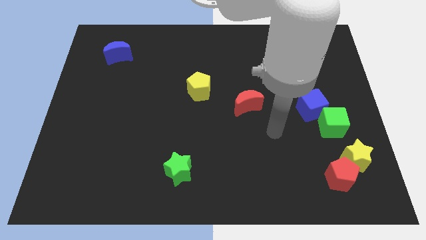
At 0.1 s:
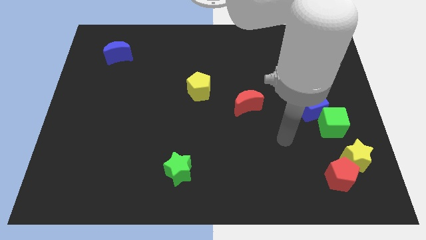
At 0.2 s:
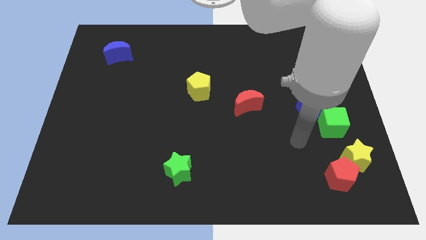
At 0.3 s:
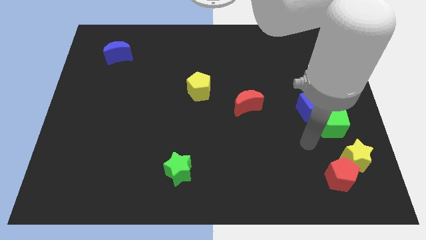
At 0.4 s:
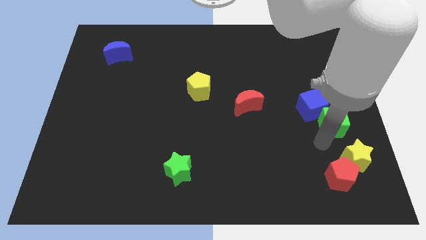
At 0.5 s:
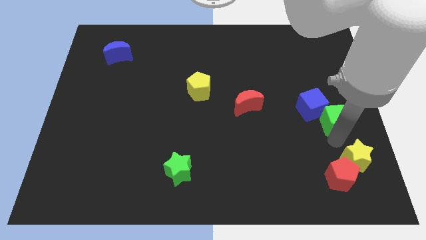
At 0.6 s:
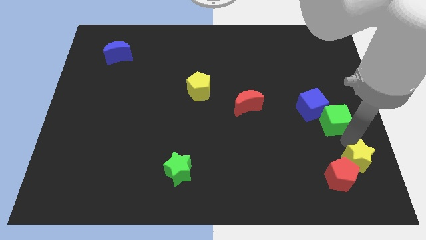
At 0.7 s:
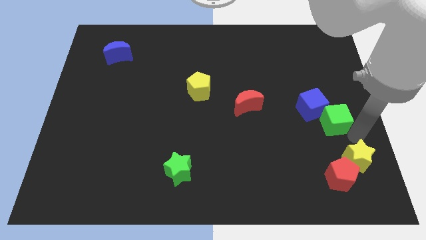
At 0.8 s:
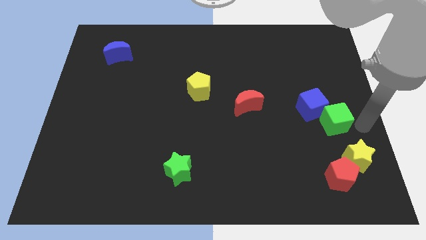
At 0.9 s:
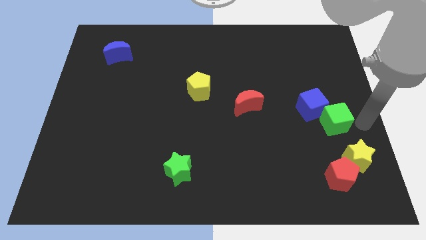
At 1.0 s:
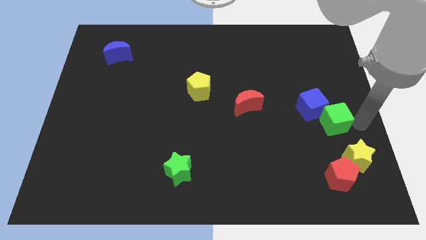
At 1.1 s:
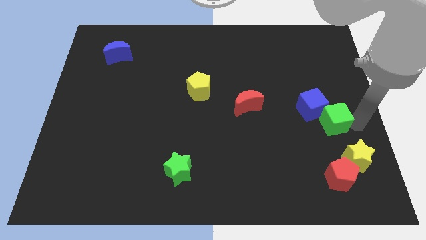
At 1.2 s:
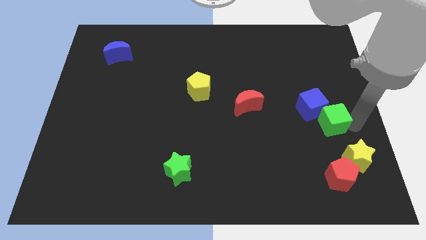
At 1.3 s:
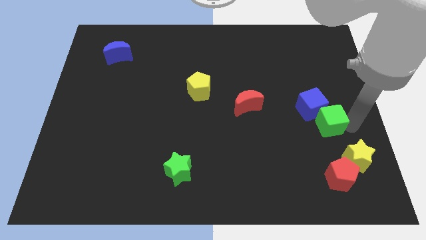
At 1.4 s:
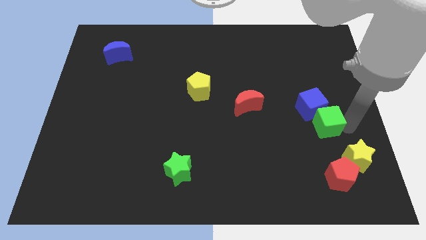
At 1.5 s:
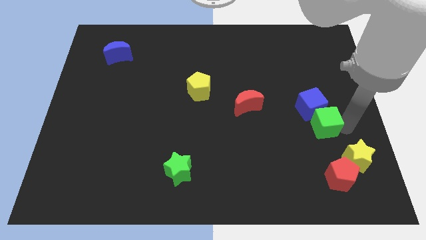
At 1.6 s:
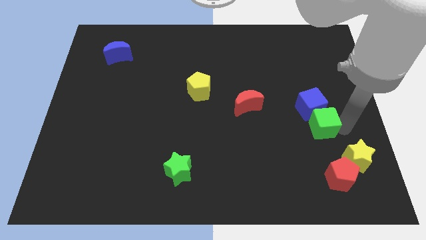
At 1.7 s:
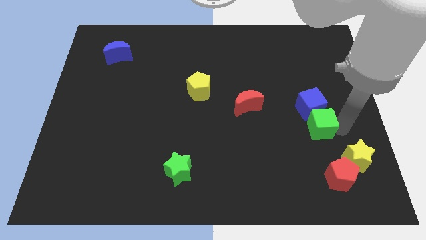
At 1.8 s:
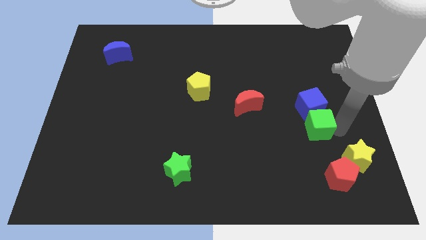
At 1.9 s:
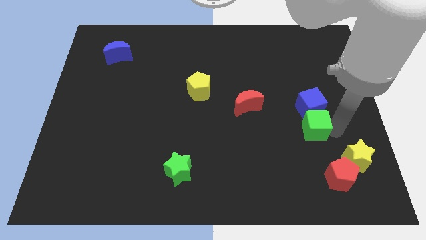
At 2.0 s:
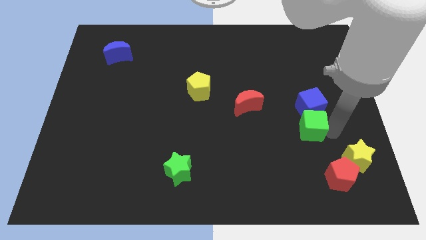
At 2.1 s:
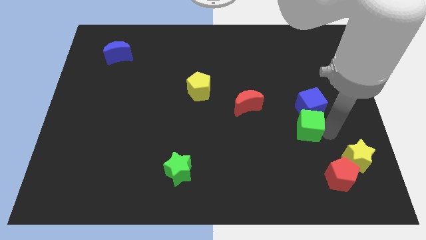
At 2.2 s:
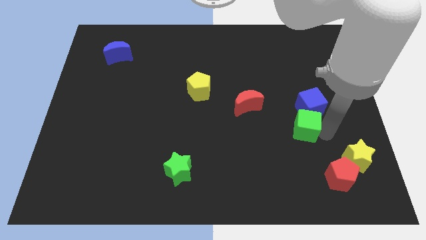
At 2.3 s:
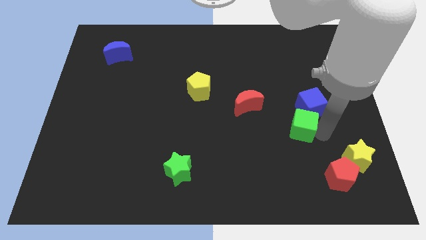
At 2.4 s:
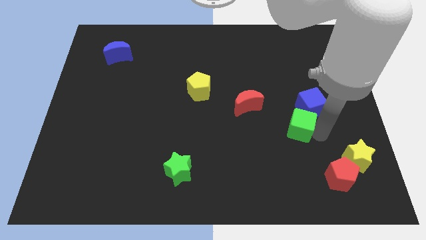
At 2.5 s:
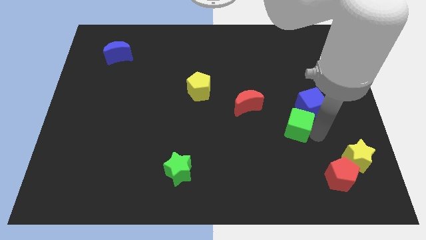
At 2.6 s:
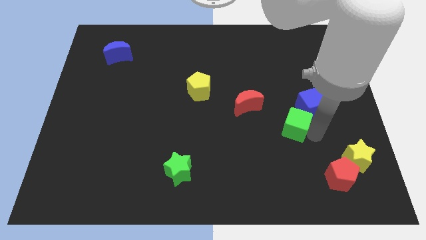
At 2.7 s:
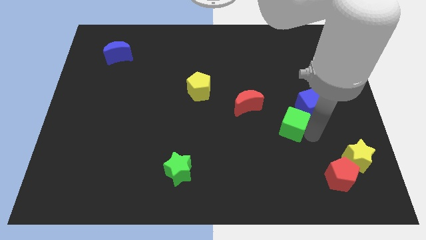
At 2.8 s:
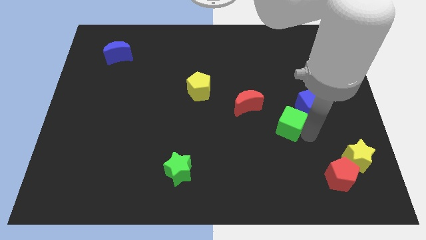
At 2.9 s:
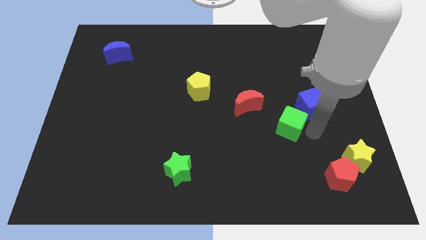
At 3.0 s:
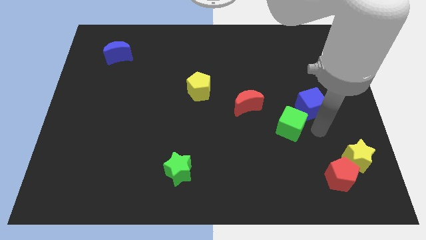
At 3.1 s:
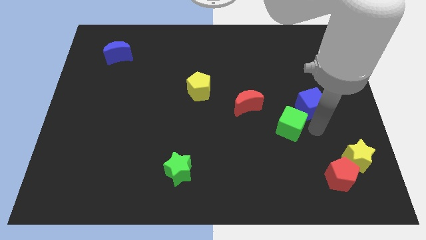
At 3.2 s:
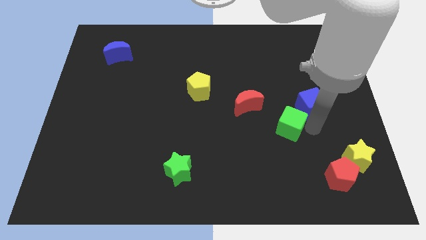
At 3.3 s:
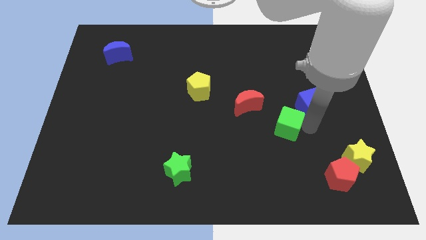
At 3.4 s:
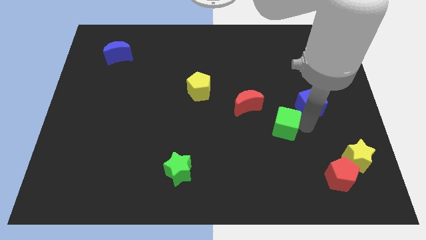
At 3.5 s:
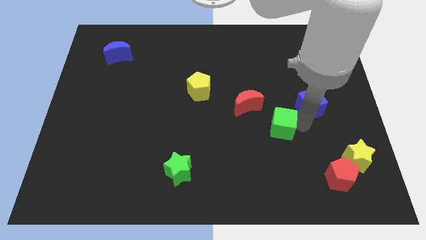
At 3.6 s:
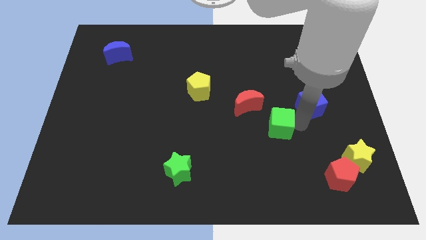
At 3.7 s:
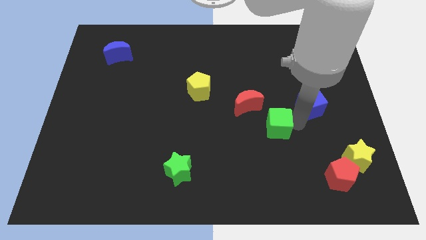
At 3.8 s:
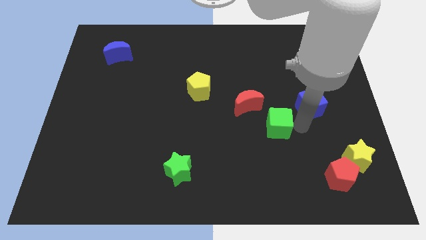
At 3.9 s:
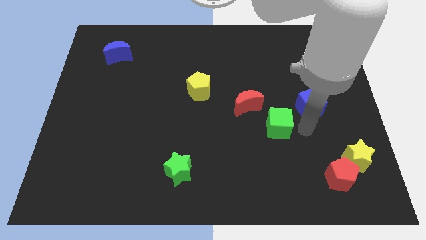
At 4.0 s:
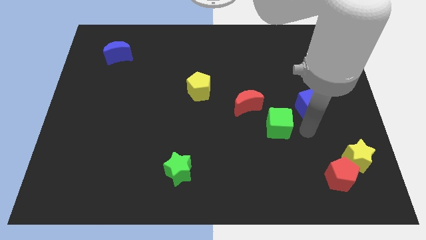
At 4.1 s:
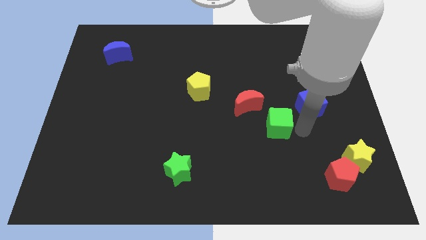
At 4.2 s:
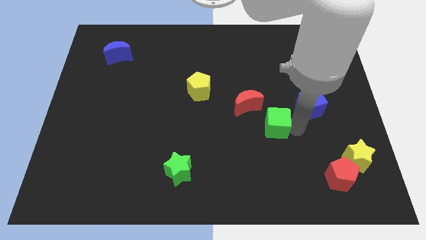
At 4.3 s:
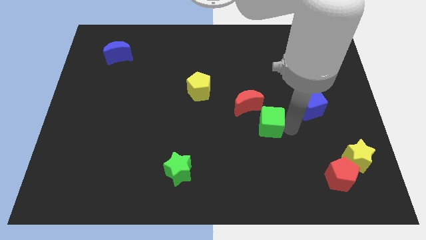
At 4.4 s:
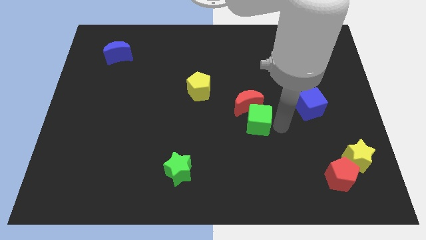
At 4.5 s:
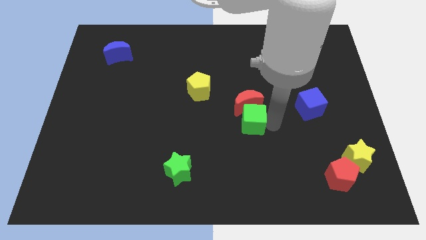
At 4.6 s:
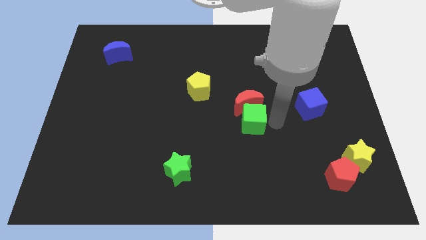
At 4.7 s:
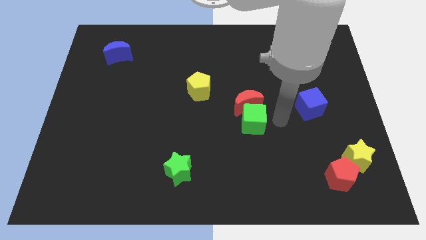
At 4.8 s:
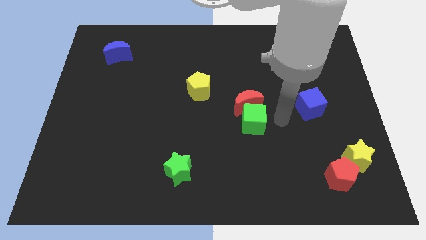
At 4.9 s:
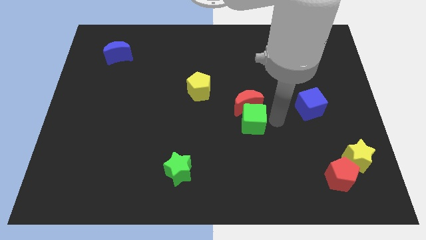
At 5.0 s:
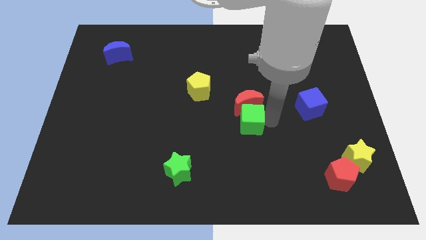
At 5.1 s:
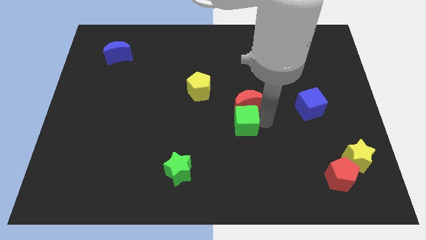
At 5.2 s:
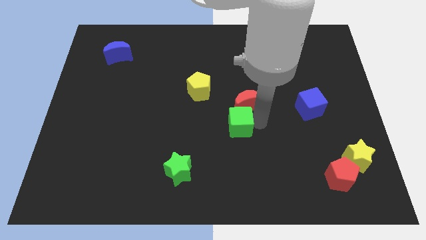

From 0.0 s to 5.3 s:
push the green cube to the left

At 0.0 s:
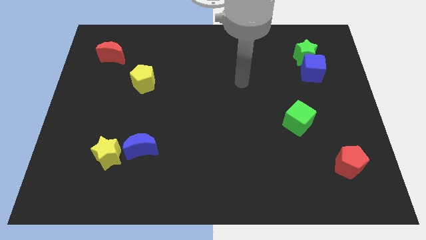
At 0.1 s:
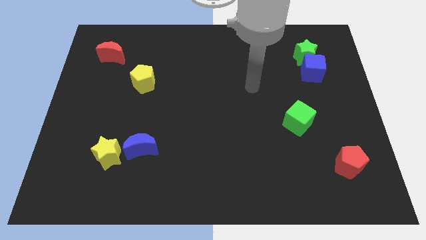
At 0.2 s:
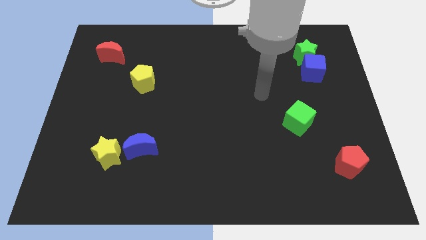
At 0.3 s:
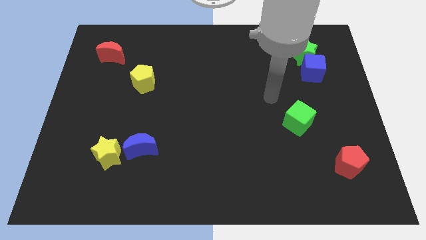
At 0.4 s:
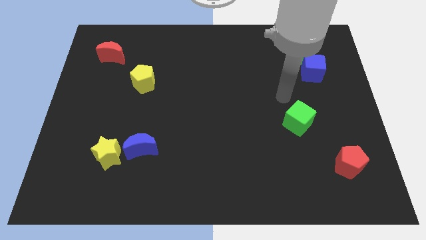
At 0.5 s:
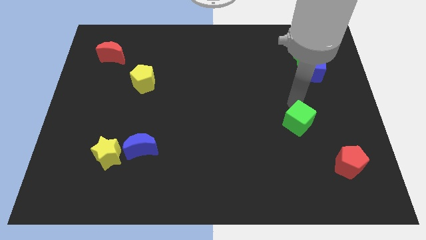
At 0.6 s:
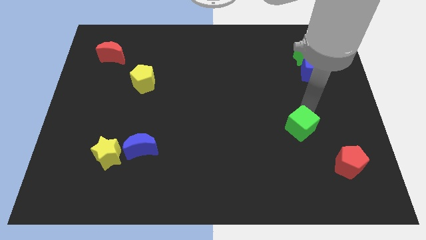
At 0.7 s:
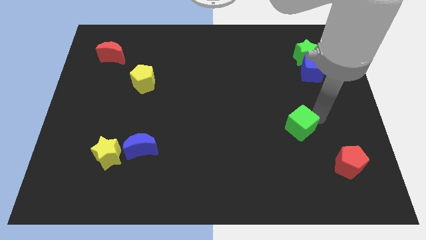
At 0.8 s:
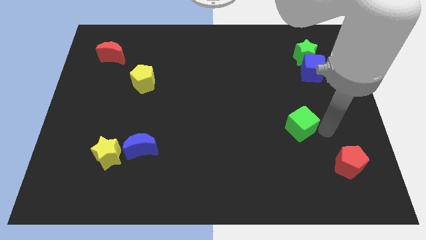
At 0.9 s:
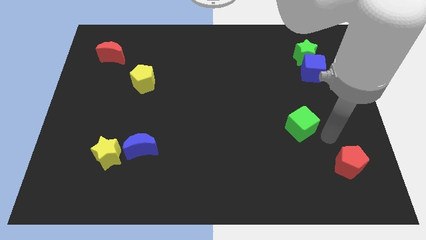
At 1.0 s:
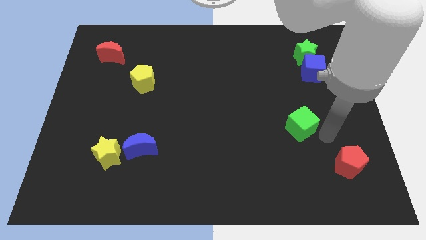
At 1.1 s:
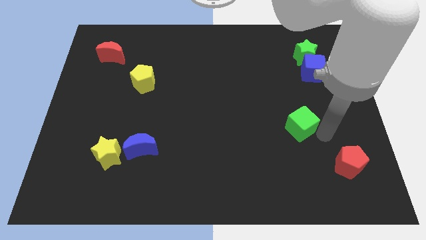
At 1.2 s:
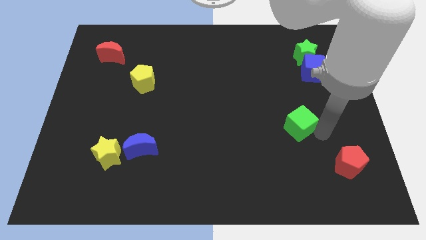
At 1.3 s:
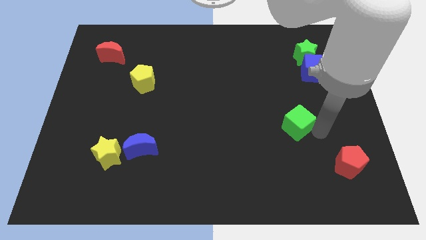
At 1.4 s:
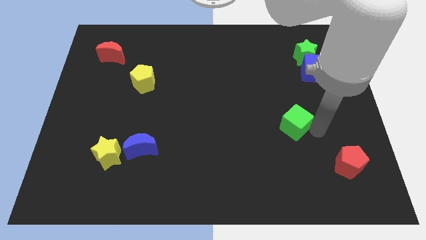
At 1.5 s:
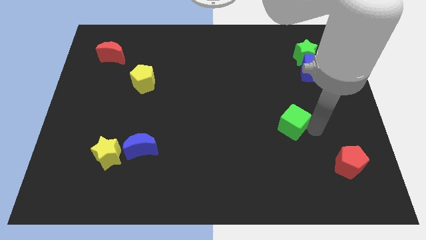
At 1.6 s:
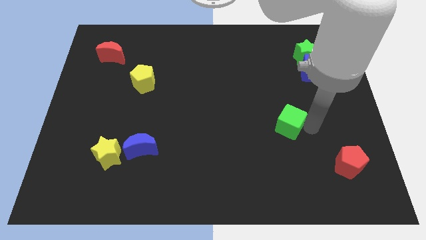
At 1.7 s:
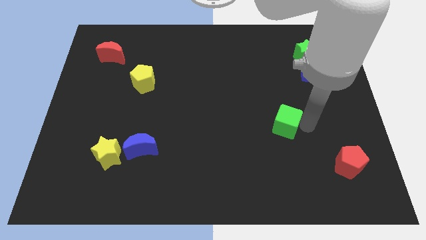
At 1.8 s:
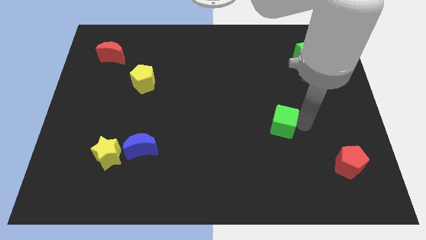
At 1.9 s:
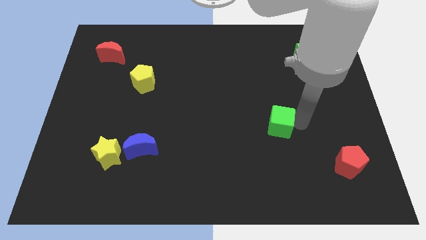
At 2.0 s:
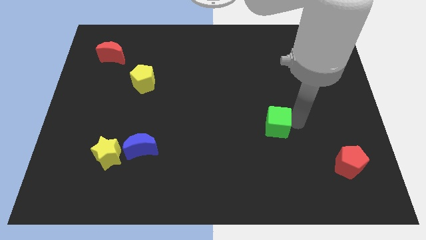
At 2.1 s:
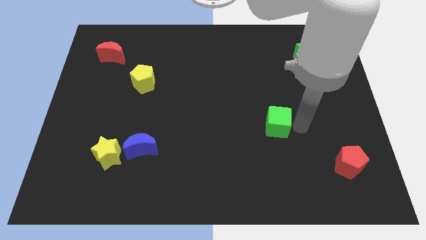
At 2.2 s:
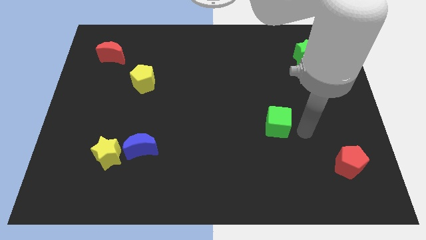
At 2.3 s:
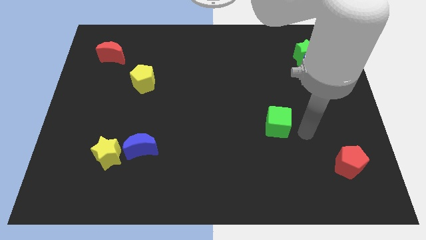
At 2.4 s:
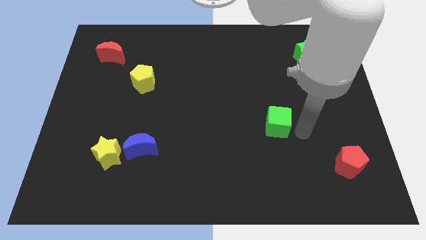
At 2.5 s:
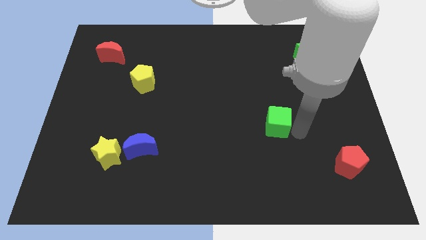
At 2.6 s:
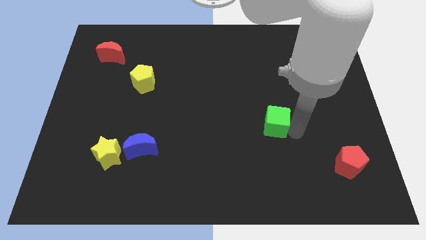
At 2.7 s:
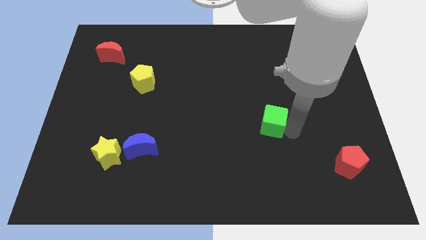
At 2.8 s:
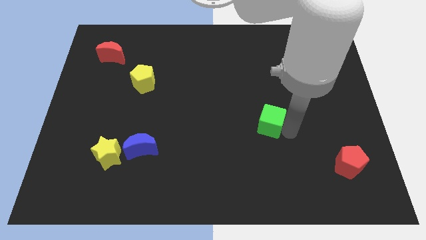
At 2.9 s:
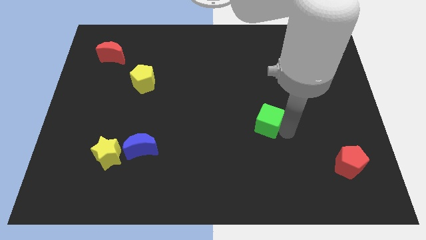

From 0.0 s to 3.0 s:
slightly push the green cube left

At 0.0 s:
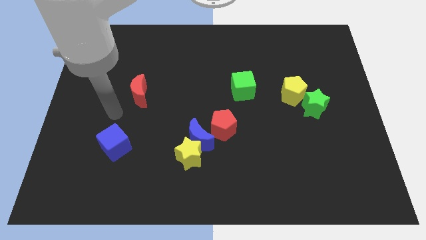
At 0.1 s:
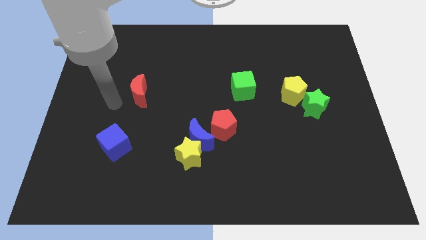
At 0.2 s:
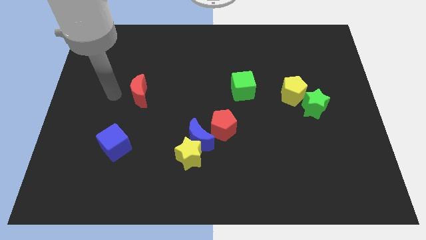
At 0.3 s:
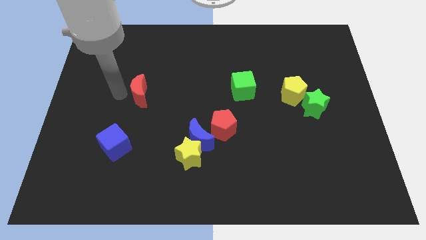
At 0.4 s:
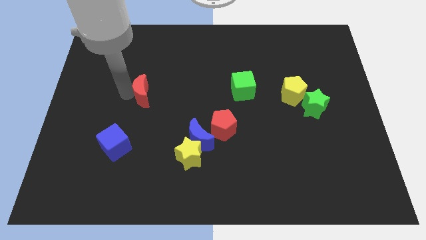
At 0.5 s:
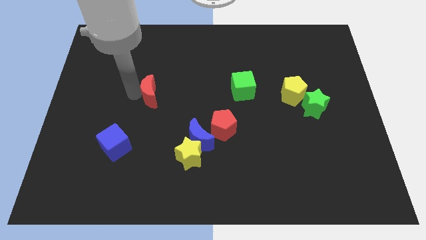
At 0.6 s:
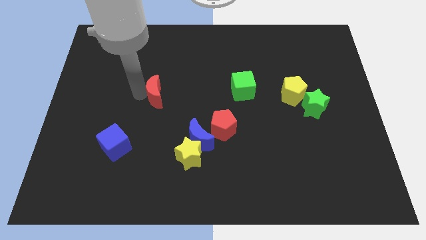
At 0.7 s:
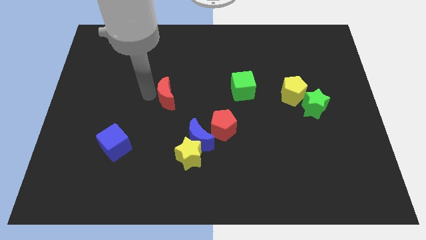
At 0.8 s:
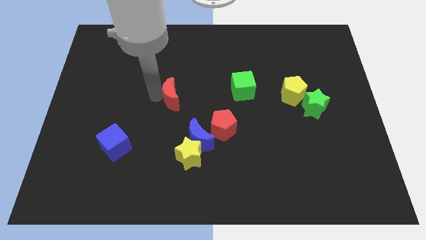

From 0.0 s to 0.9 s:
move the red moon to the right slightly
